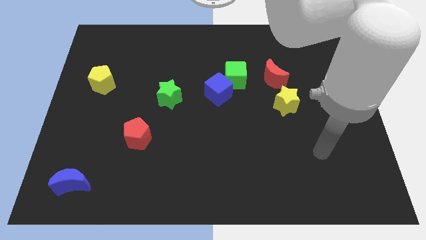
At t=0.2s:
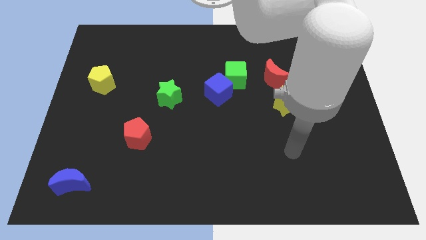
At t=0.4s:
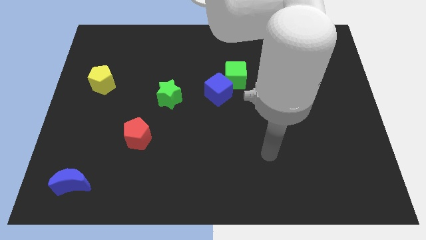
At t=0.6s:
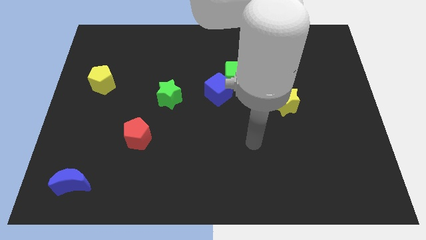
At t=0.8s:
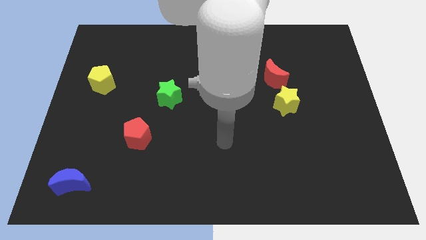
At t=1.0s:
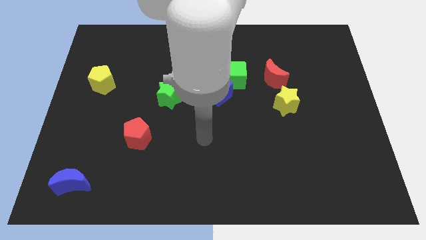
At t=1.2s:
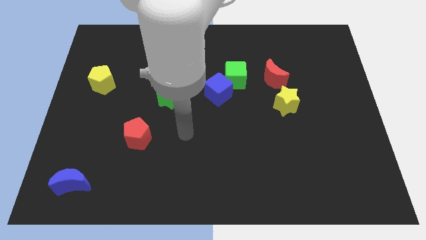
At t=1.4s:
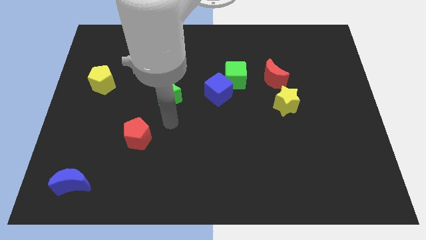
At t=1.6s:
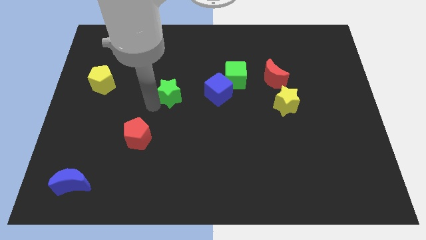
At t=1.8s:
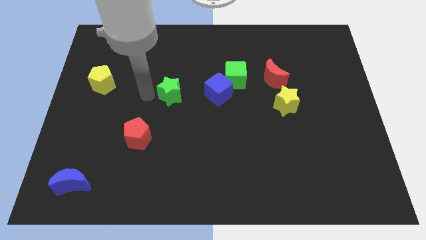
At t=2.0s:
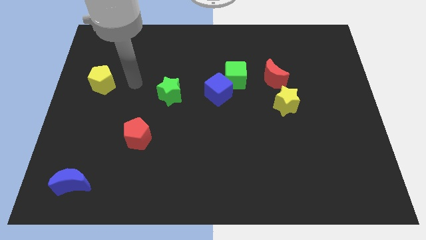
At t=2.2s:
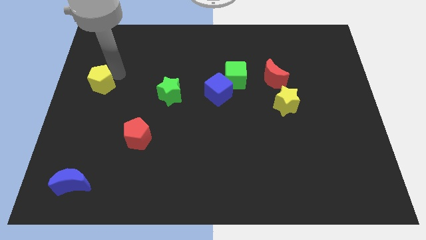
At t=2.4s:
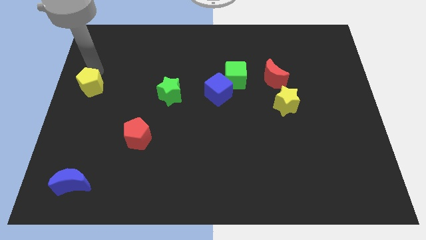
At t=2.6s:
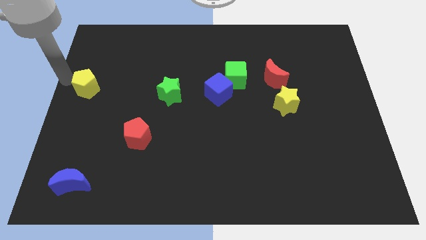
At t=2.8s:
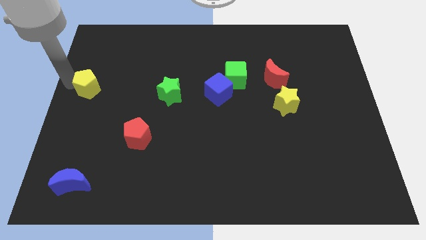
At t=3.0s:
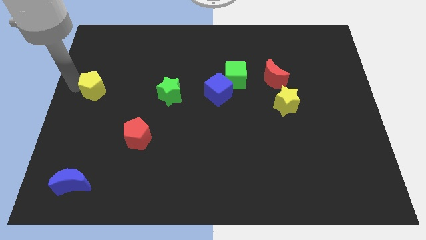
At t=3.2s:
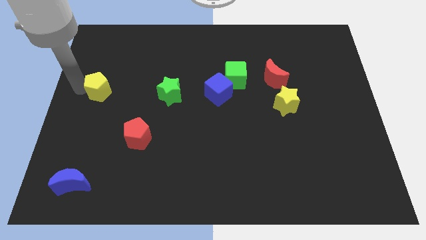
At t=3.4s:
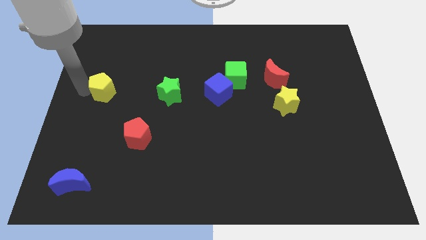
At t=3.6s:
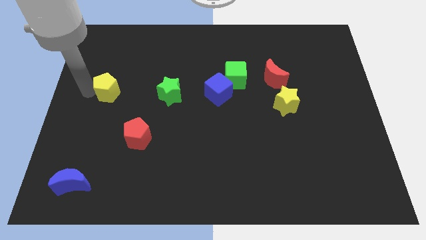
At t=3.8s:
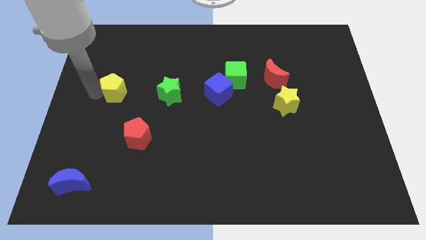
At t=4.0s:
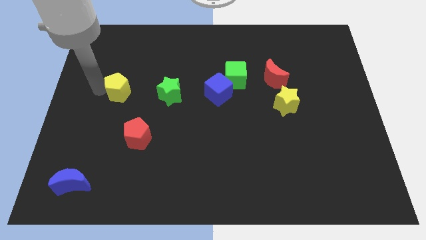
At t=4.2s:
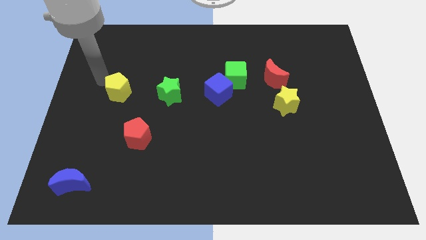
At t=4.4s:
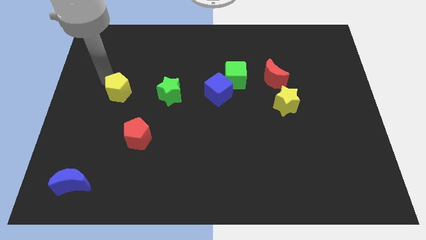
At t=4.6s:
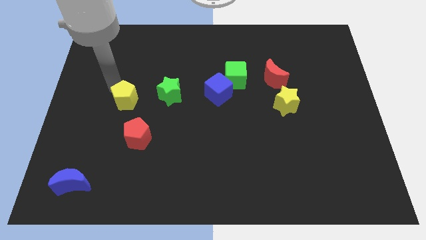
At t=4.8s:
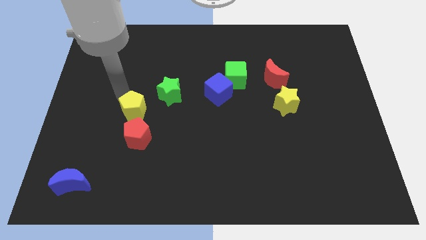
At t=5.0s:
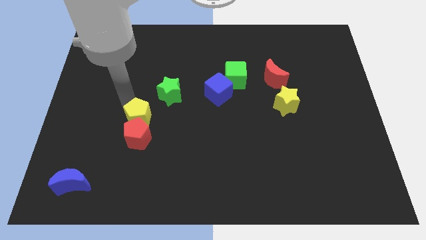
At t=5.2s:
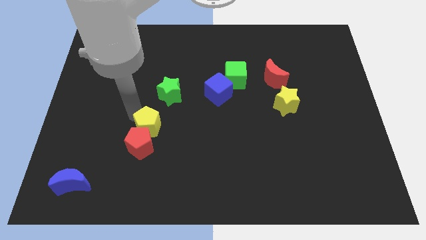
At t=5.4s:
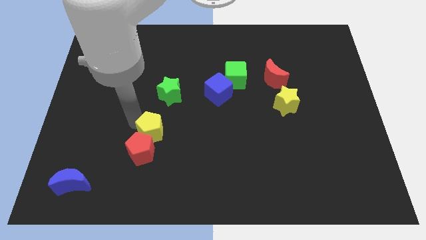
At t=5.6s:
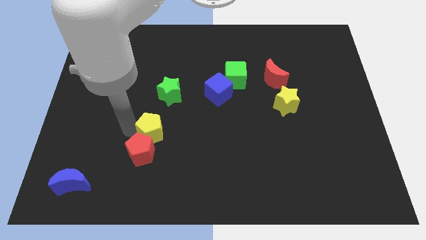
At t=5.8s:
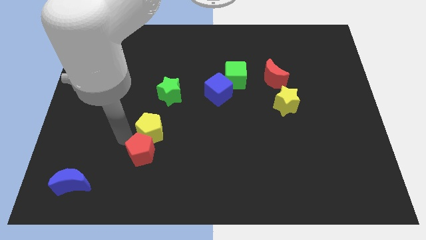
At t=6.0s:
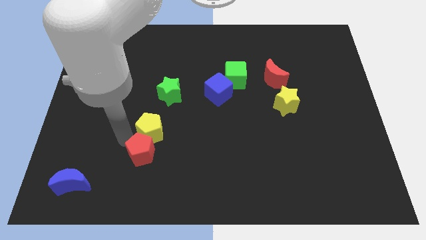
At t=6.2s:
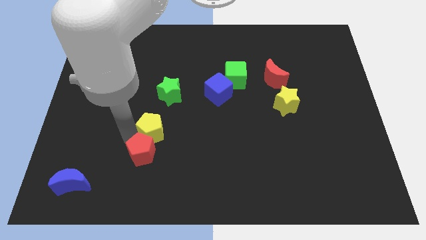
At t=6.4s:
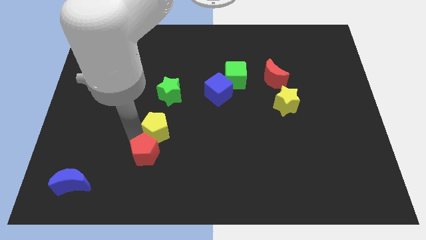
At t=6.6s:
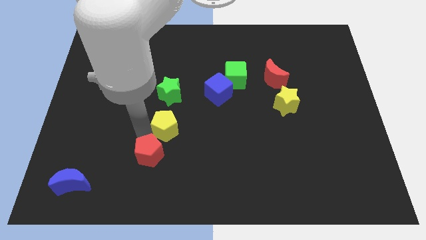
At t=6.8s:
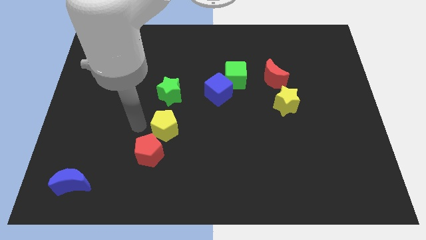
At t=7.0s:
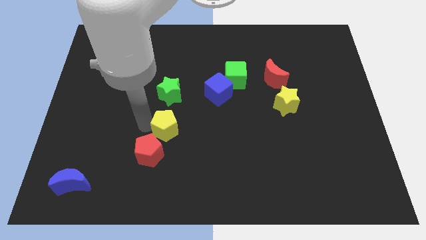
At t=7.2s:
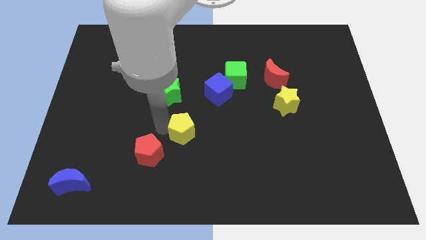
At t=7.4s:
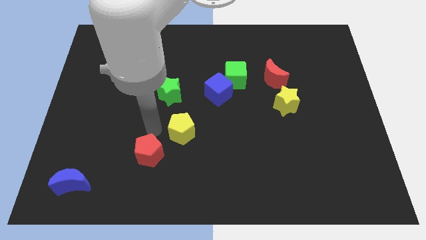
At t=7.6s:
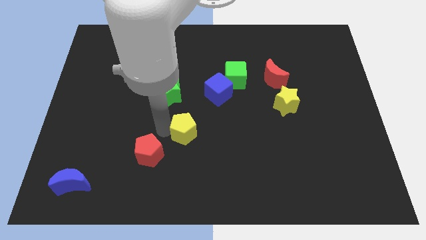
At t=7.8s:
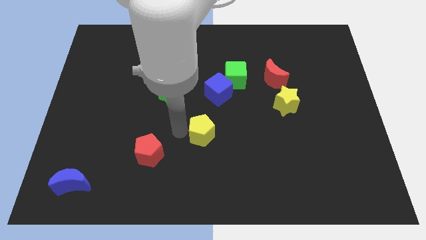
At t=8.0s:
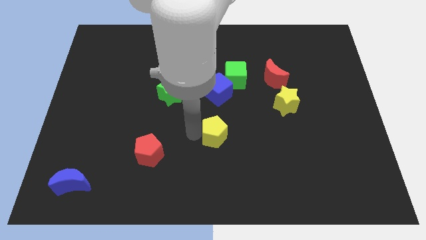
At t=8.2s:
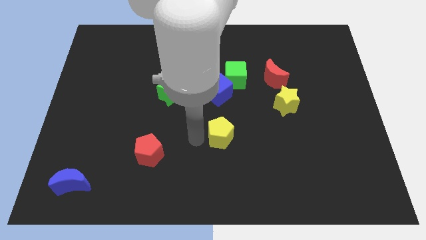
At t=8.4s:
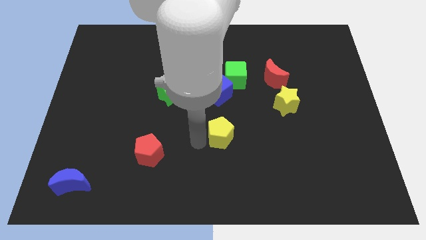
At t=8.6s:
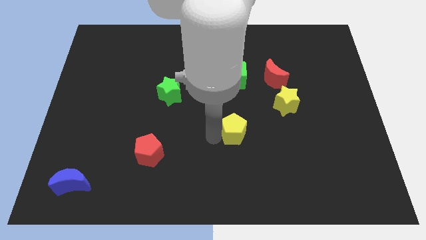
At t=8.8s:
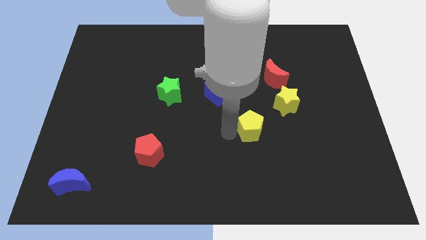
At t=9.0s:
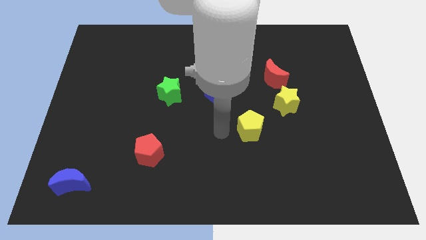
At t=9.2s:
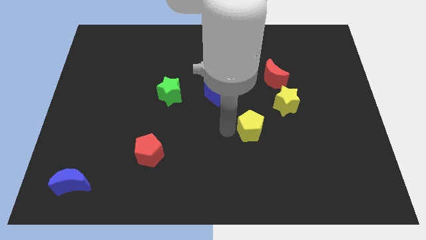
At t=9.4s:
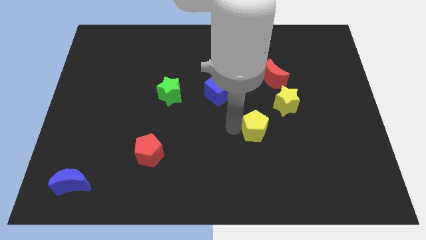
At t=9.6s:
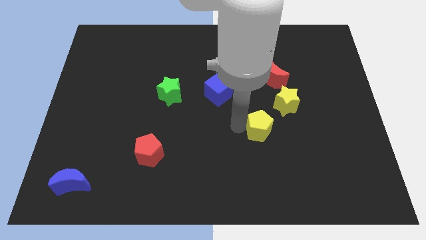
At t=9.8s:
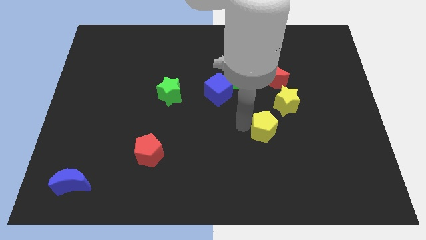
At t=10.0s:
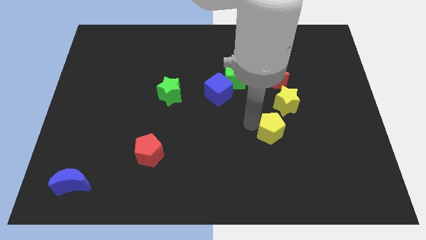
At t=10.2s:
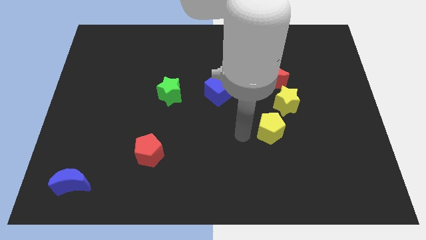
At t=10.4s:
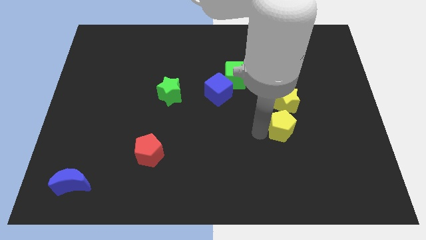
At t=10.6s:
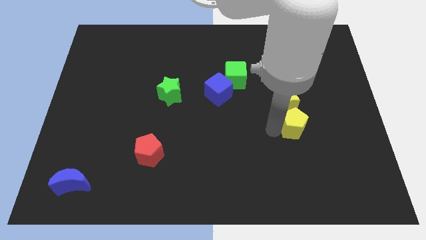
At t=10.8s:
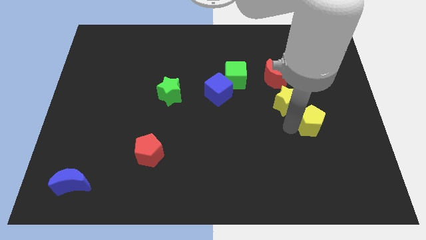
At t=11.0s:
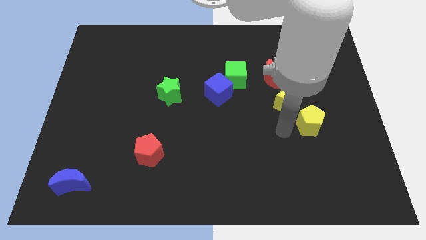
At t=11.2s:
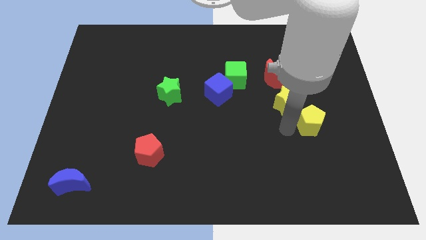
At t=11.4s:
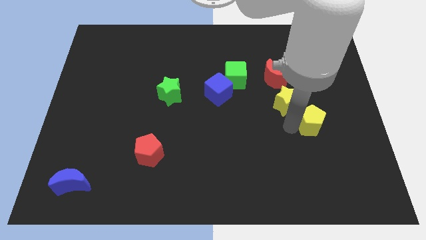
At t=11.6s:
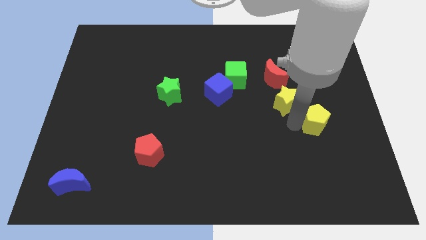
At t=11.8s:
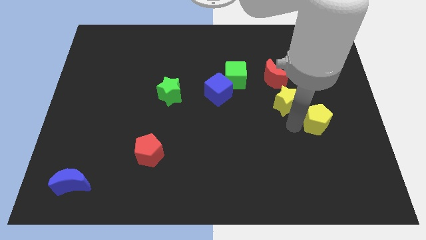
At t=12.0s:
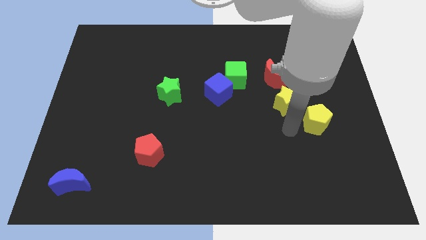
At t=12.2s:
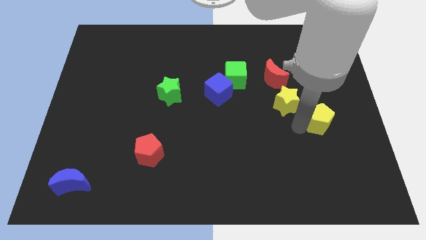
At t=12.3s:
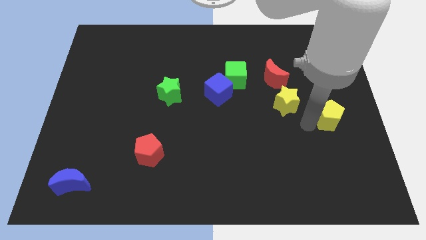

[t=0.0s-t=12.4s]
put the yellow pentagon to the right side of the board

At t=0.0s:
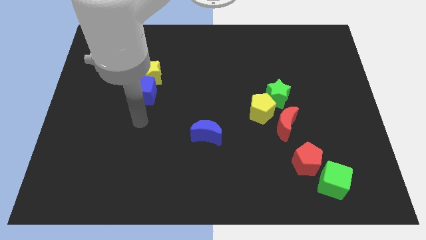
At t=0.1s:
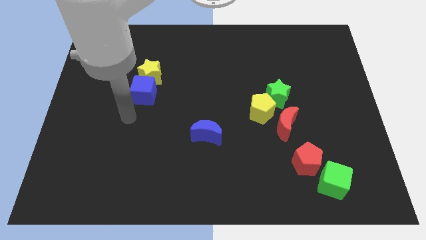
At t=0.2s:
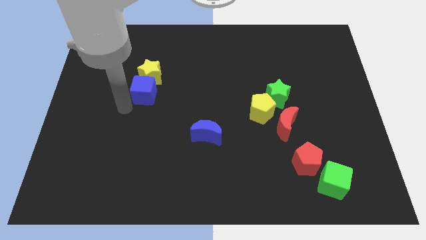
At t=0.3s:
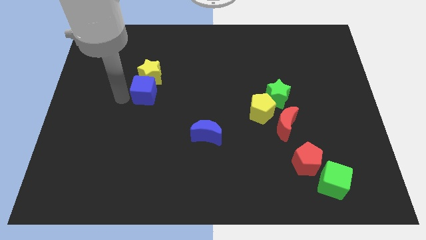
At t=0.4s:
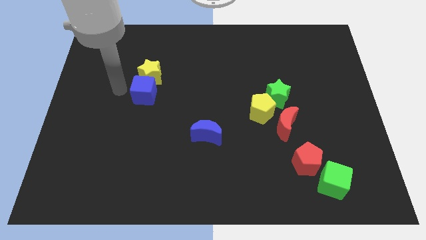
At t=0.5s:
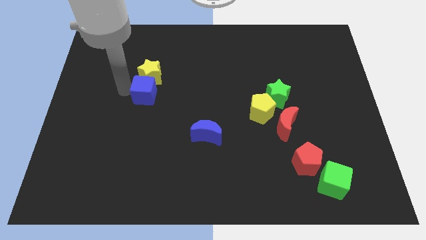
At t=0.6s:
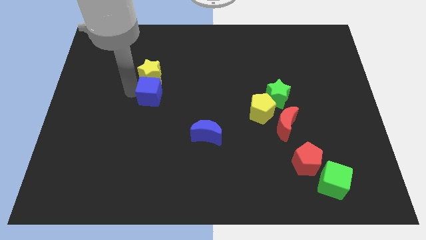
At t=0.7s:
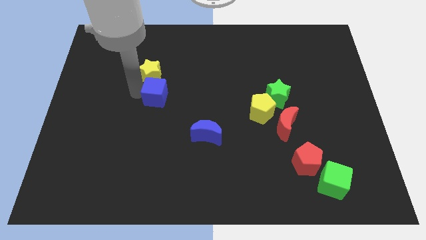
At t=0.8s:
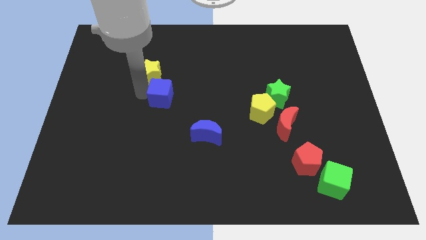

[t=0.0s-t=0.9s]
put the blue cube to the center
